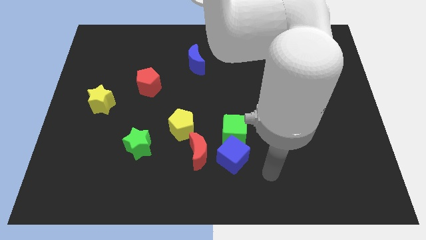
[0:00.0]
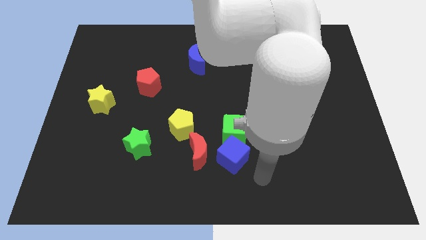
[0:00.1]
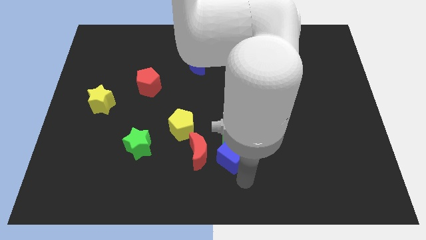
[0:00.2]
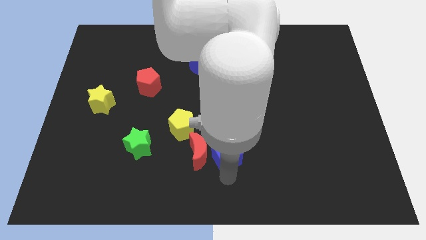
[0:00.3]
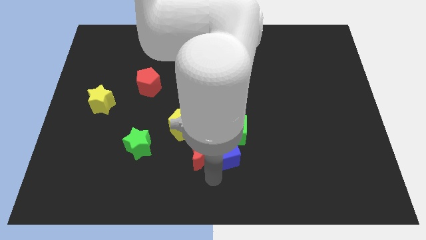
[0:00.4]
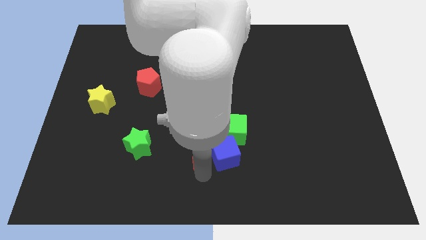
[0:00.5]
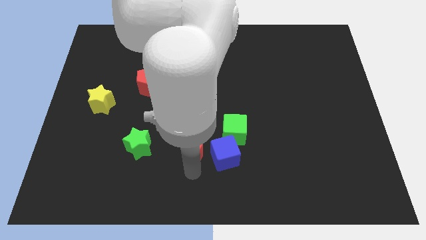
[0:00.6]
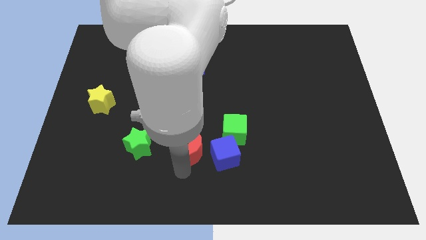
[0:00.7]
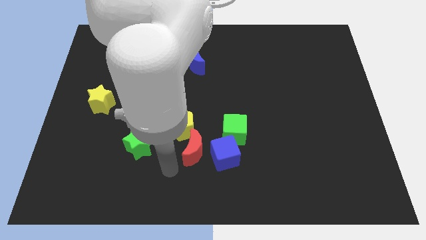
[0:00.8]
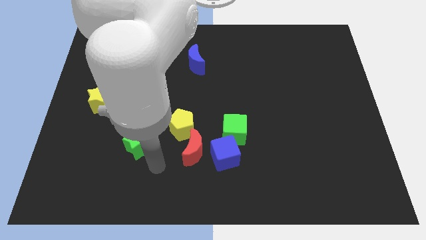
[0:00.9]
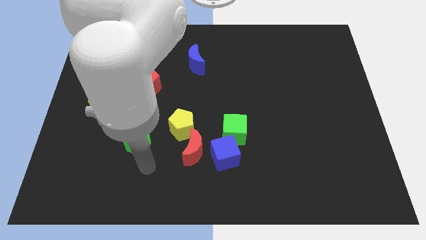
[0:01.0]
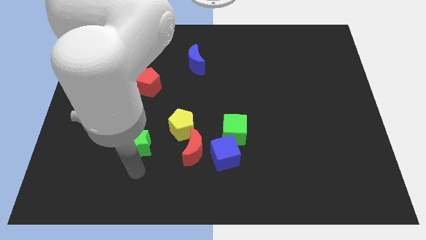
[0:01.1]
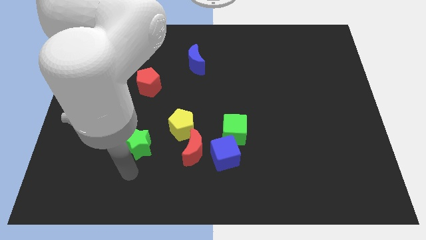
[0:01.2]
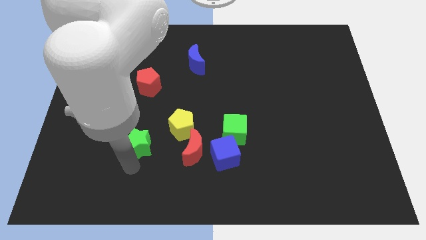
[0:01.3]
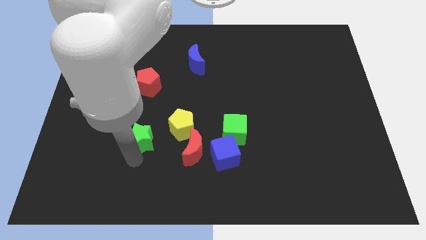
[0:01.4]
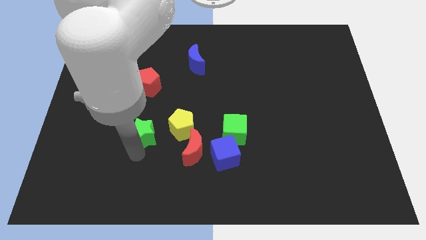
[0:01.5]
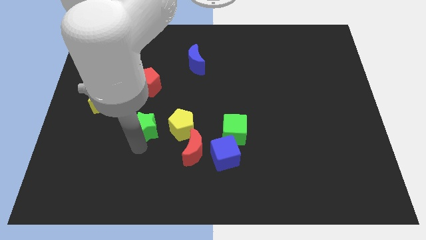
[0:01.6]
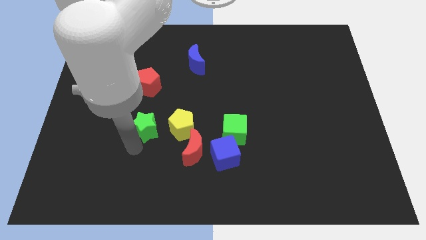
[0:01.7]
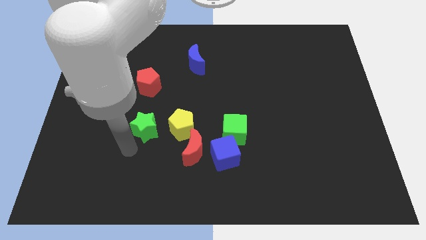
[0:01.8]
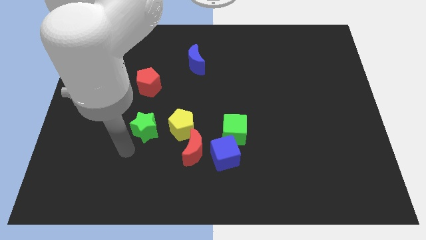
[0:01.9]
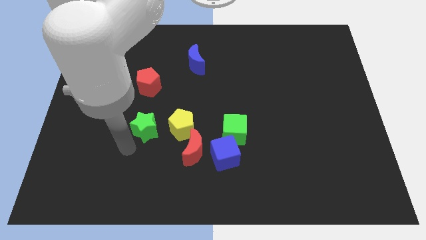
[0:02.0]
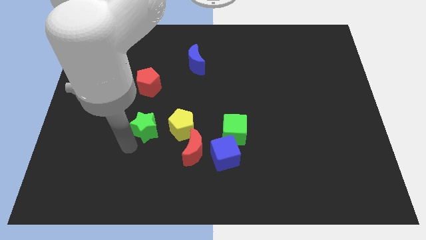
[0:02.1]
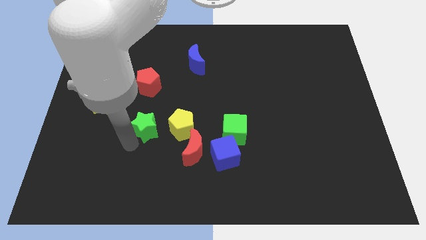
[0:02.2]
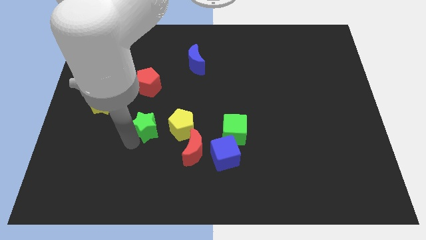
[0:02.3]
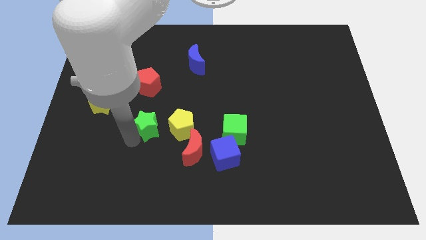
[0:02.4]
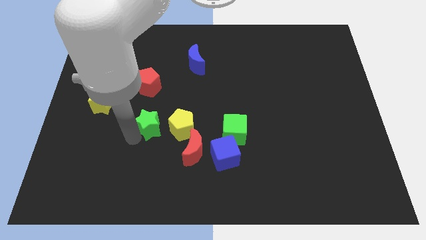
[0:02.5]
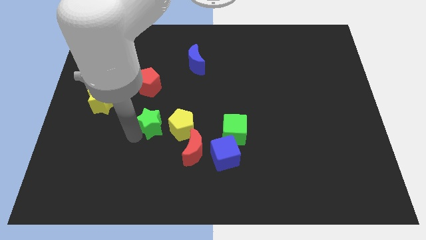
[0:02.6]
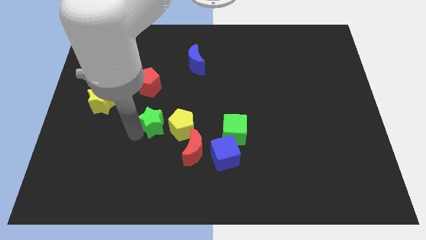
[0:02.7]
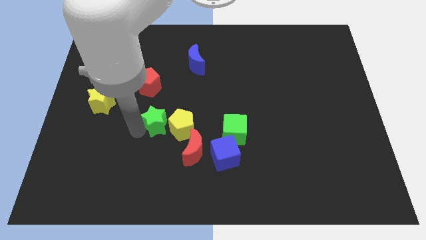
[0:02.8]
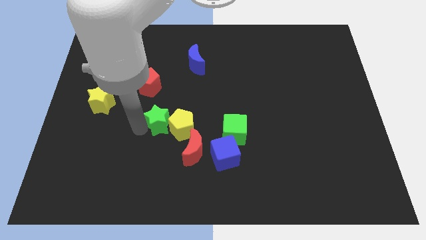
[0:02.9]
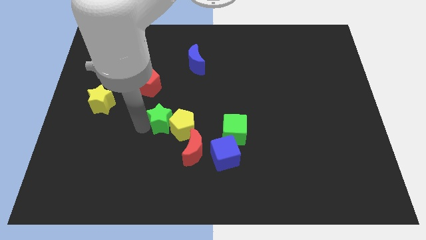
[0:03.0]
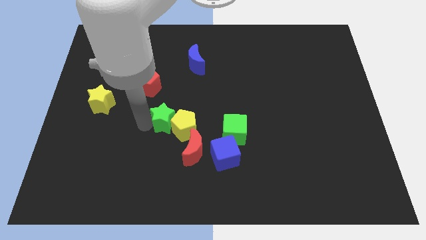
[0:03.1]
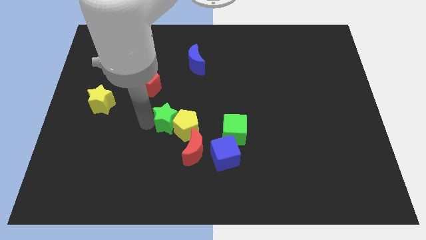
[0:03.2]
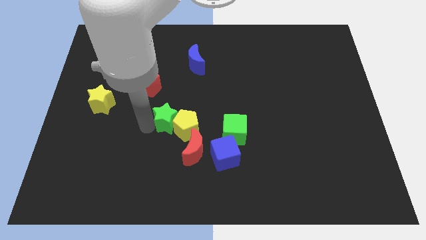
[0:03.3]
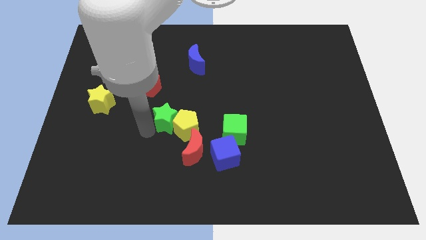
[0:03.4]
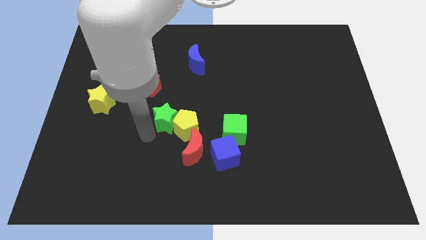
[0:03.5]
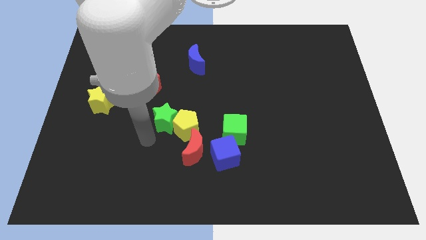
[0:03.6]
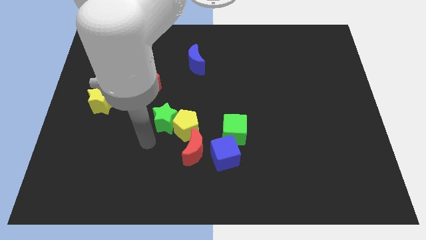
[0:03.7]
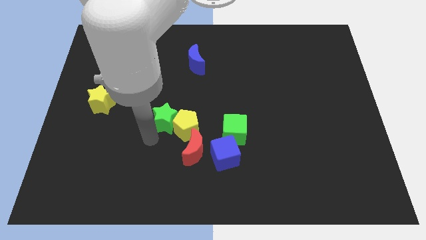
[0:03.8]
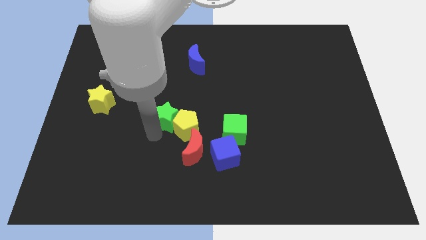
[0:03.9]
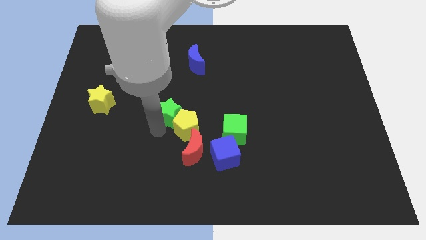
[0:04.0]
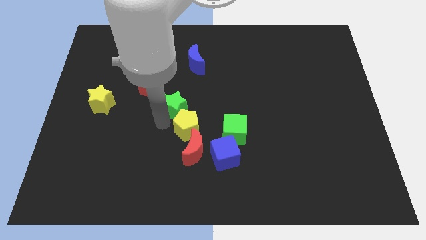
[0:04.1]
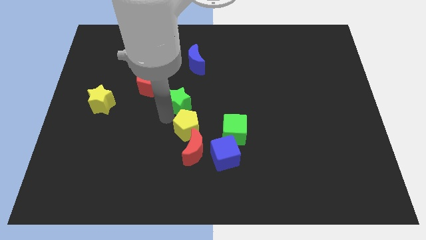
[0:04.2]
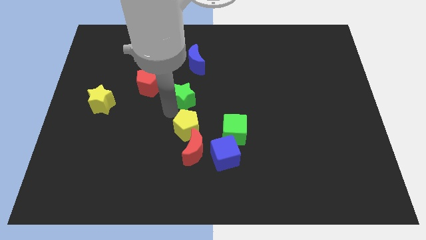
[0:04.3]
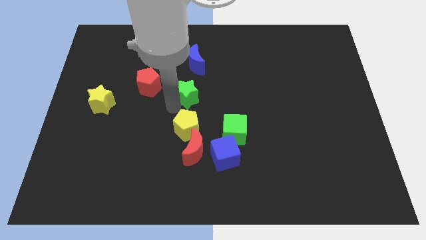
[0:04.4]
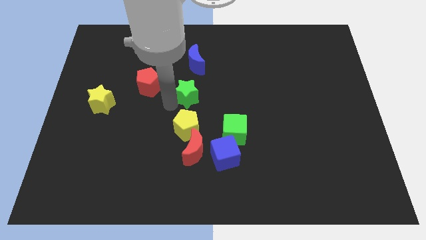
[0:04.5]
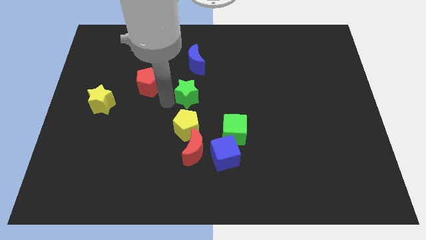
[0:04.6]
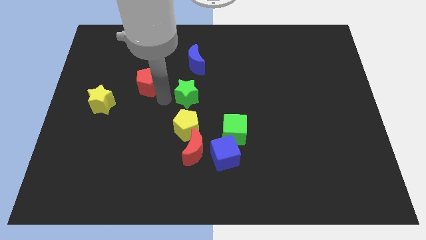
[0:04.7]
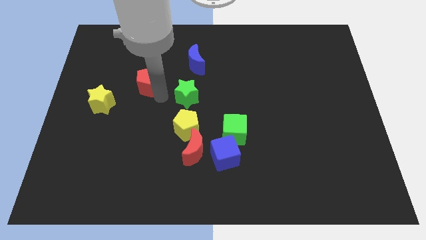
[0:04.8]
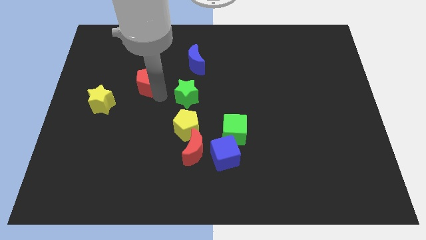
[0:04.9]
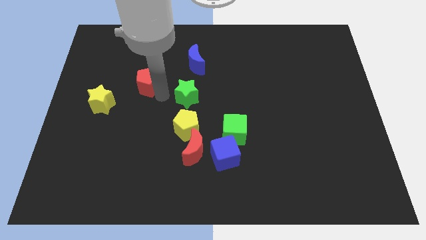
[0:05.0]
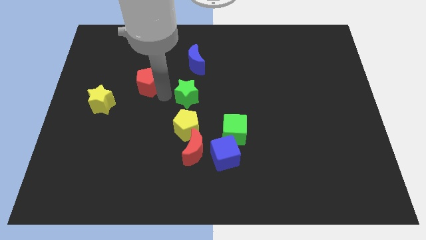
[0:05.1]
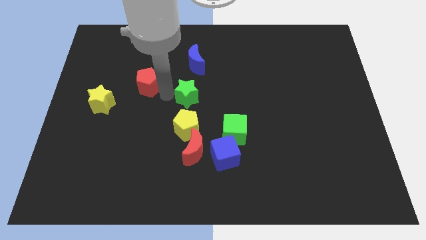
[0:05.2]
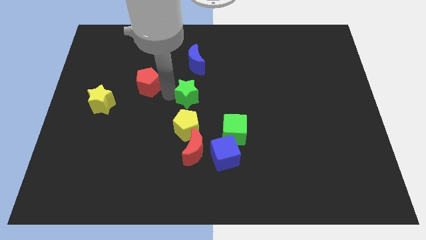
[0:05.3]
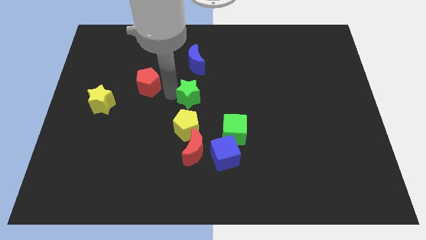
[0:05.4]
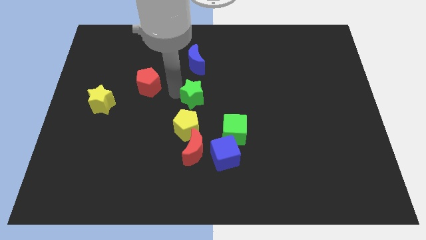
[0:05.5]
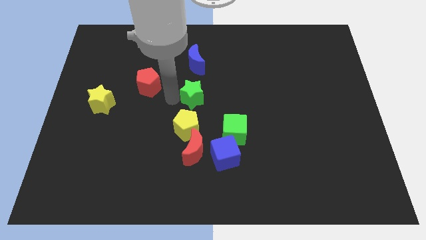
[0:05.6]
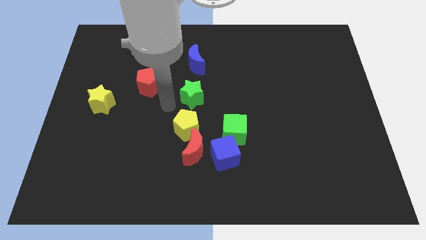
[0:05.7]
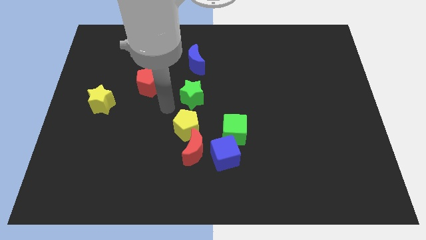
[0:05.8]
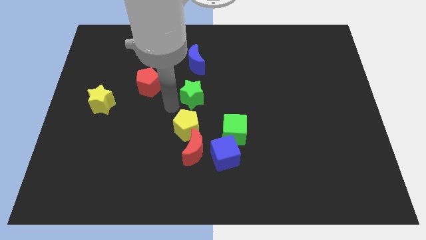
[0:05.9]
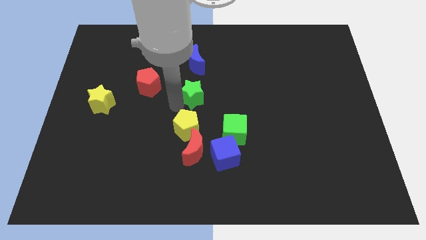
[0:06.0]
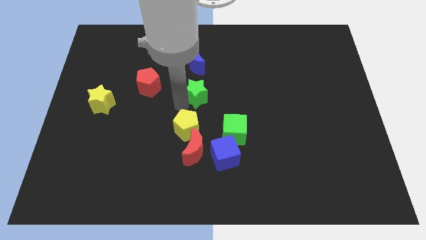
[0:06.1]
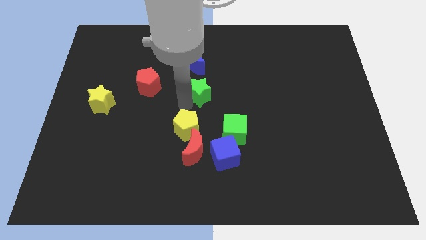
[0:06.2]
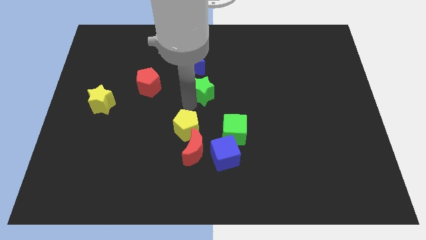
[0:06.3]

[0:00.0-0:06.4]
move the green star up and to the right diagonally

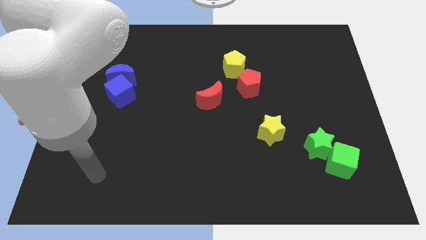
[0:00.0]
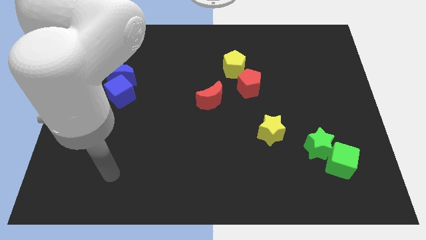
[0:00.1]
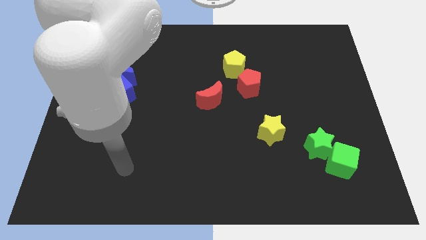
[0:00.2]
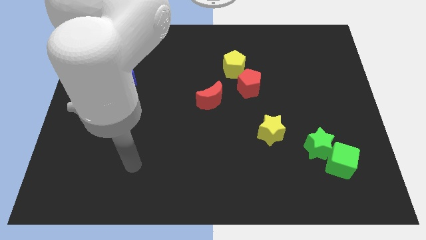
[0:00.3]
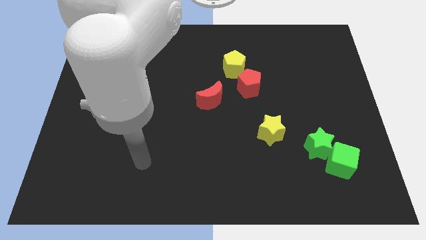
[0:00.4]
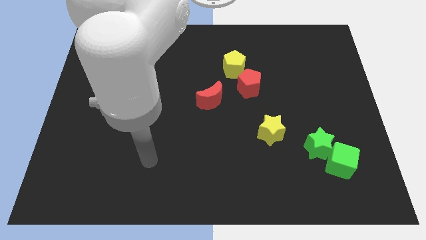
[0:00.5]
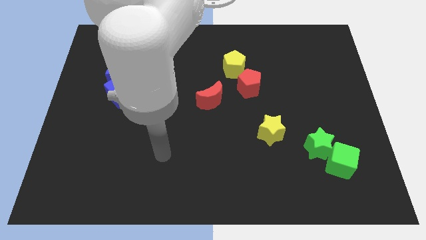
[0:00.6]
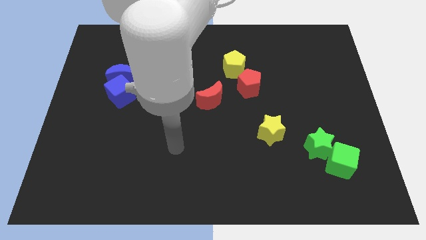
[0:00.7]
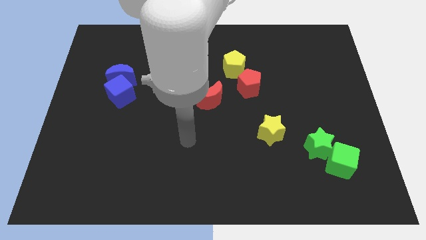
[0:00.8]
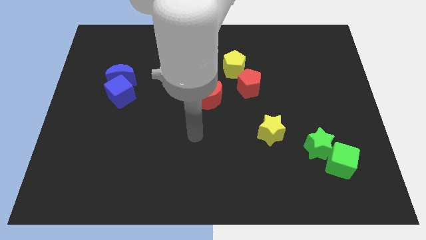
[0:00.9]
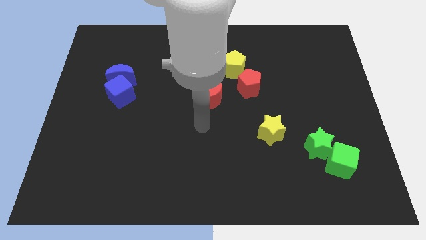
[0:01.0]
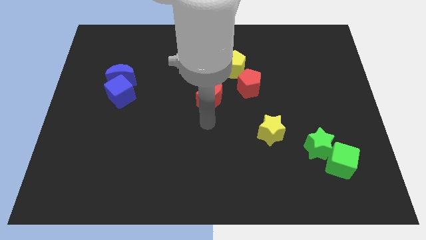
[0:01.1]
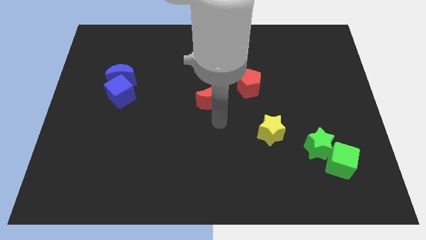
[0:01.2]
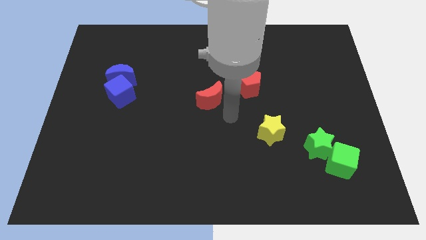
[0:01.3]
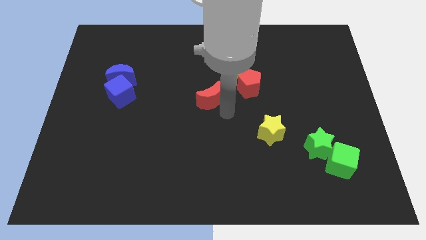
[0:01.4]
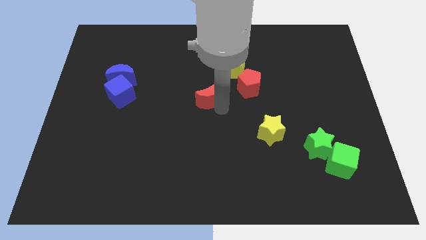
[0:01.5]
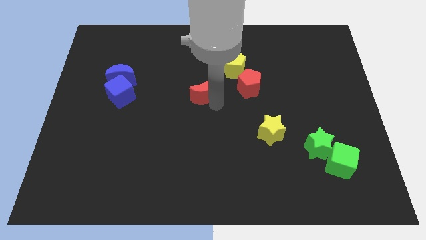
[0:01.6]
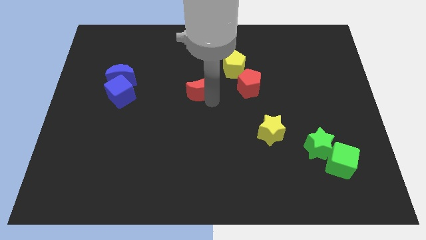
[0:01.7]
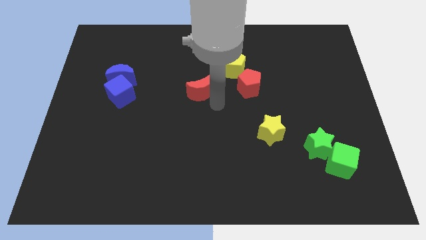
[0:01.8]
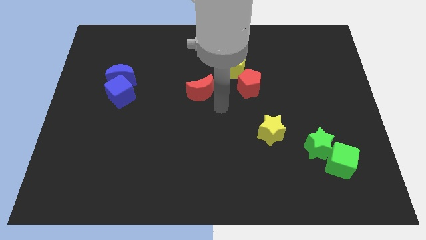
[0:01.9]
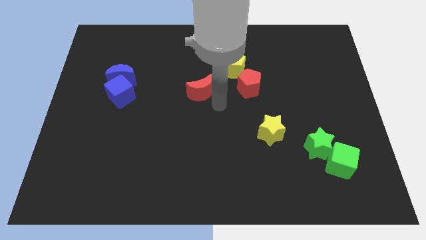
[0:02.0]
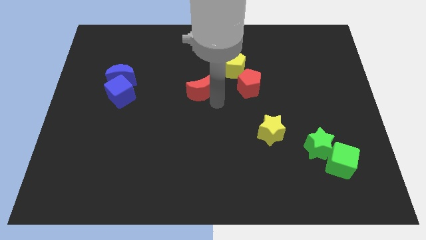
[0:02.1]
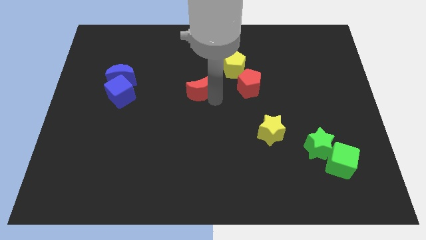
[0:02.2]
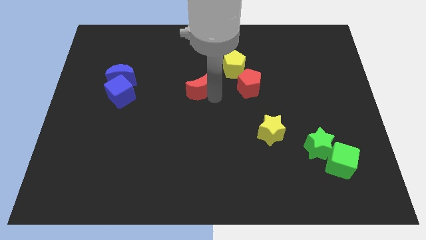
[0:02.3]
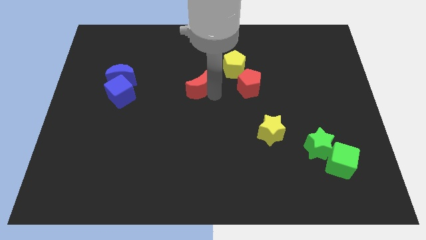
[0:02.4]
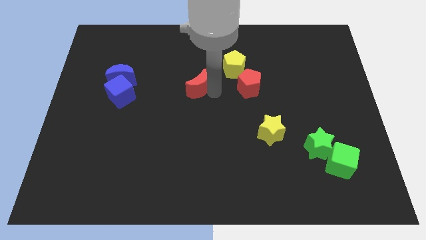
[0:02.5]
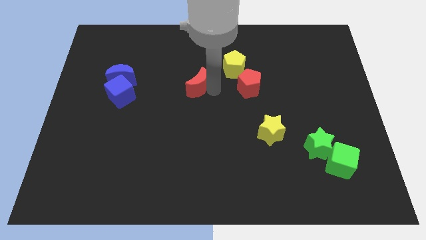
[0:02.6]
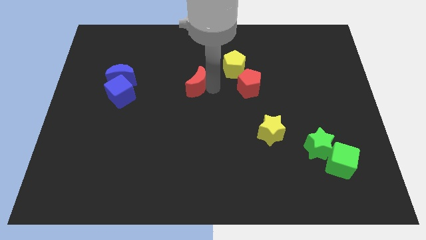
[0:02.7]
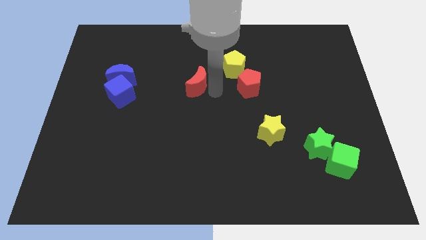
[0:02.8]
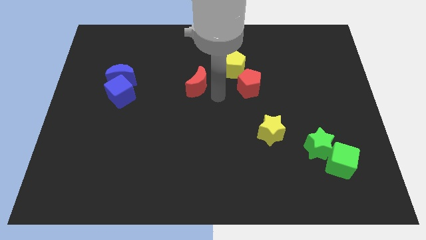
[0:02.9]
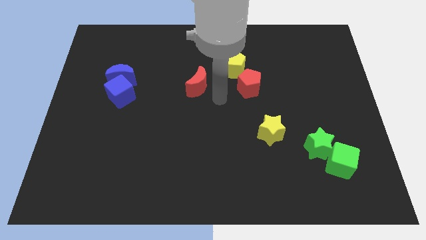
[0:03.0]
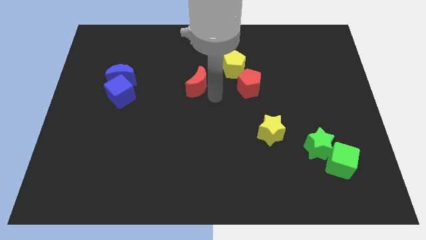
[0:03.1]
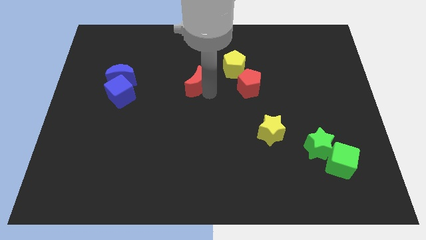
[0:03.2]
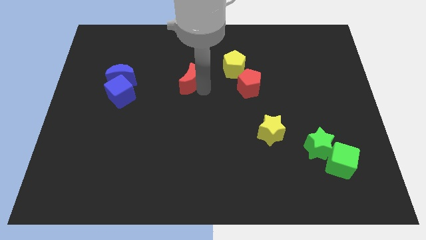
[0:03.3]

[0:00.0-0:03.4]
move the red moon diagonally up and left slightly
